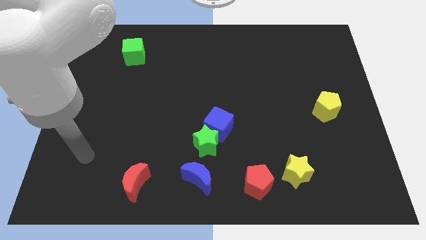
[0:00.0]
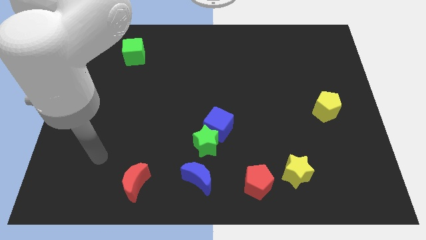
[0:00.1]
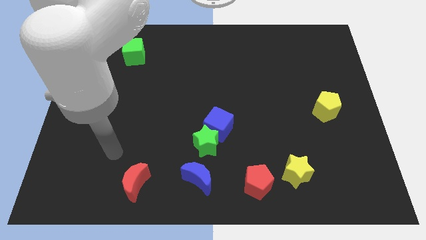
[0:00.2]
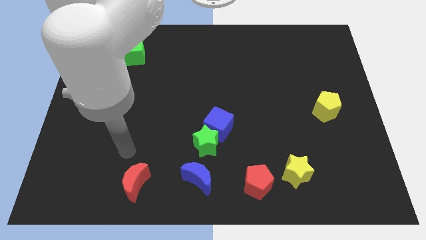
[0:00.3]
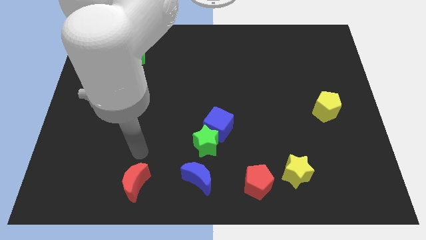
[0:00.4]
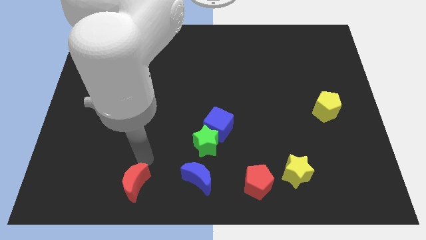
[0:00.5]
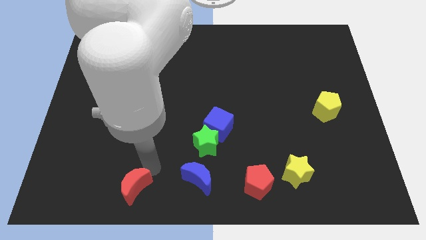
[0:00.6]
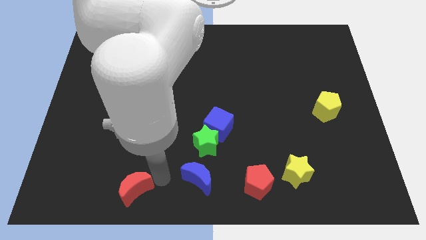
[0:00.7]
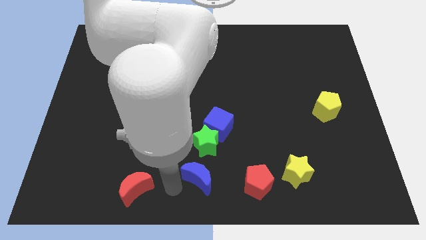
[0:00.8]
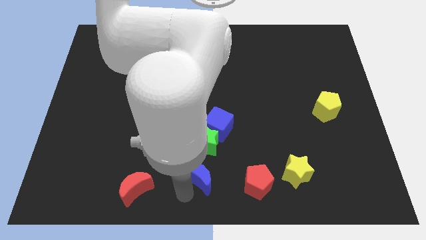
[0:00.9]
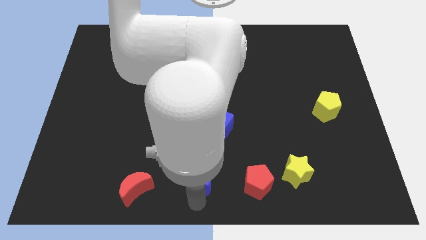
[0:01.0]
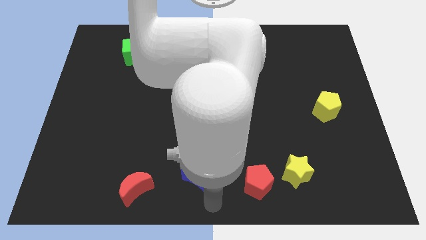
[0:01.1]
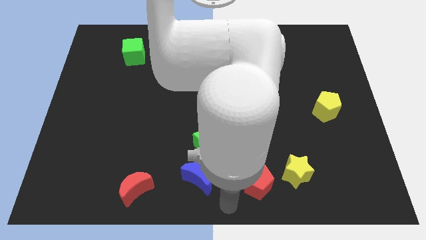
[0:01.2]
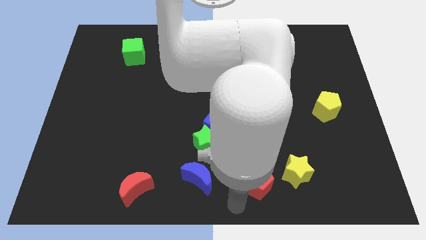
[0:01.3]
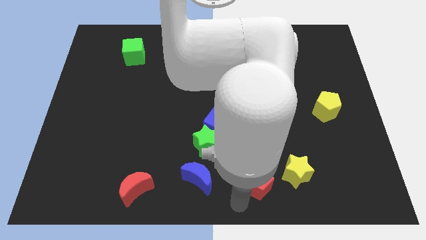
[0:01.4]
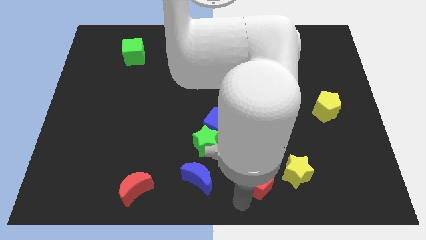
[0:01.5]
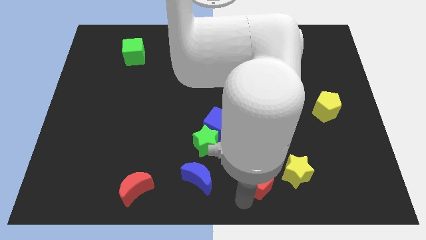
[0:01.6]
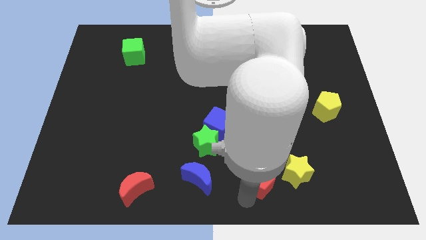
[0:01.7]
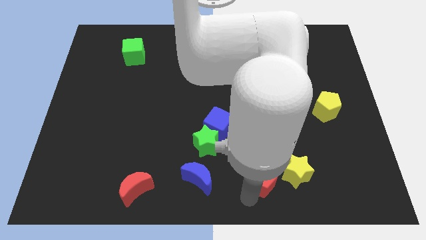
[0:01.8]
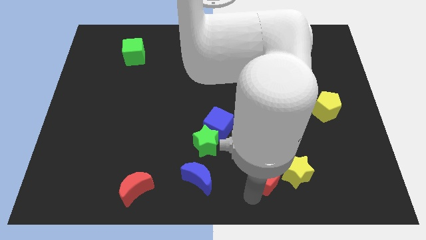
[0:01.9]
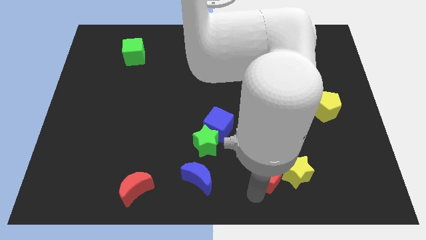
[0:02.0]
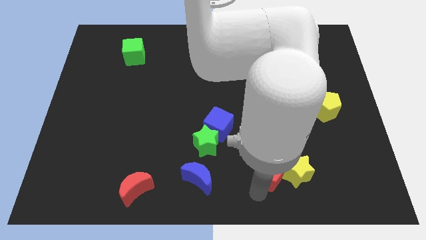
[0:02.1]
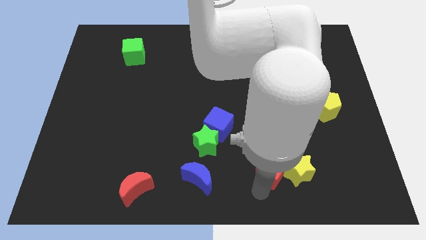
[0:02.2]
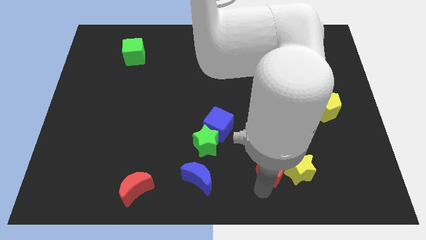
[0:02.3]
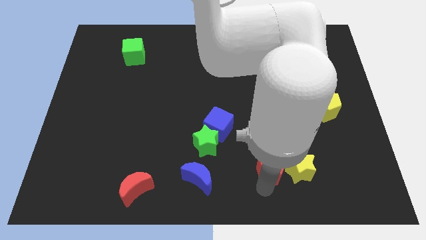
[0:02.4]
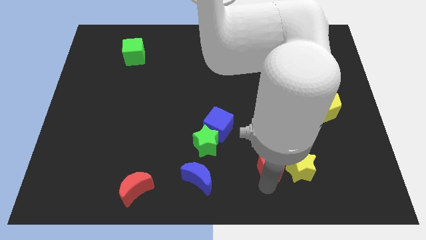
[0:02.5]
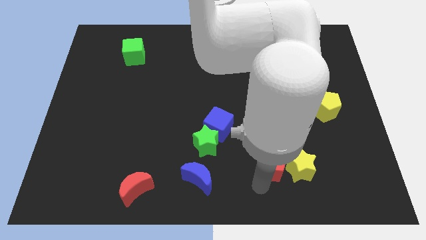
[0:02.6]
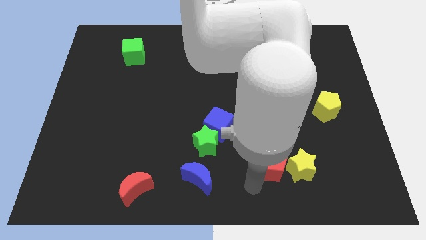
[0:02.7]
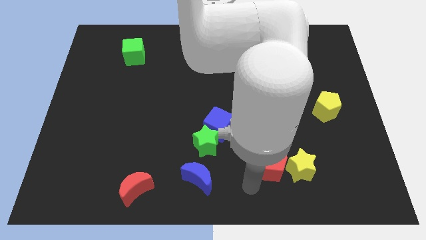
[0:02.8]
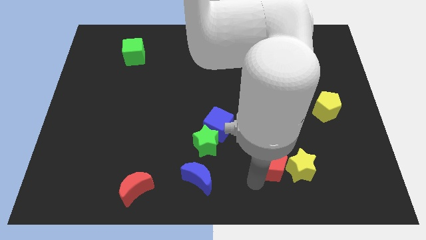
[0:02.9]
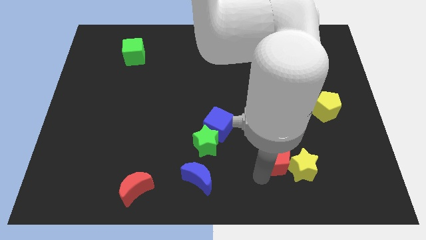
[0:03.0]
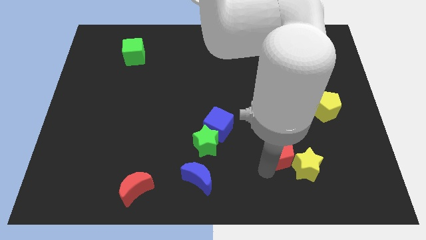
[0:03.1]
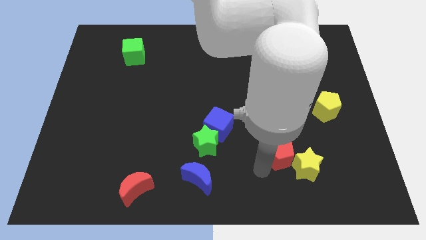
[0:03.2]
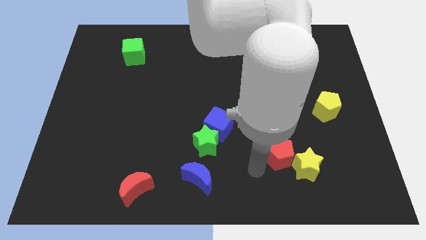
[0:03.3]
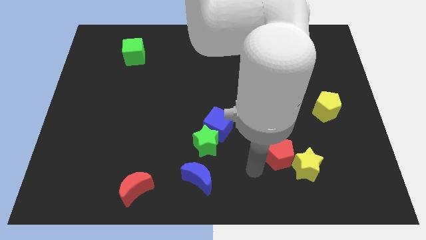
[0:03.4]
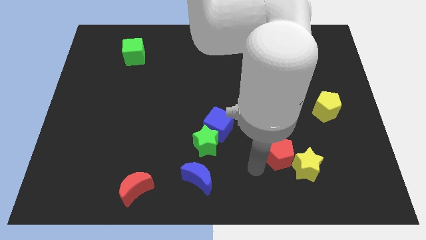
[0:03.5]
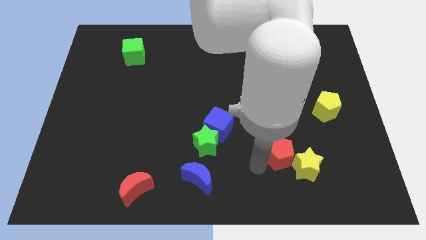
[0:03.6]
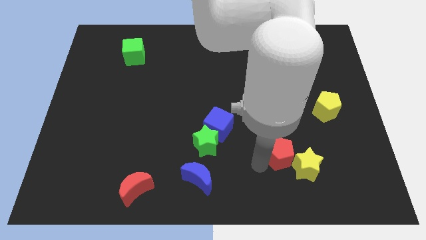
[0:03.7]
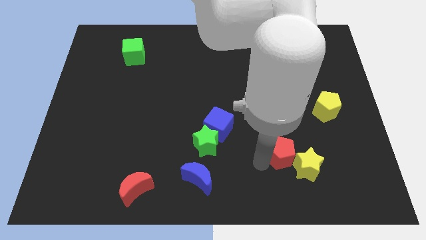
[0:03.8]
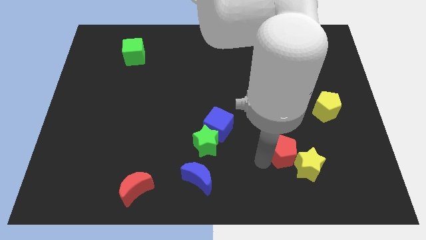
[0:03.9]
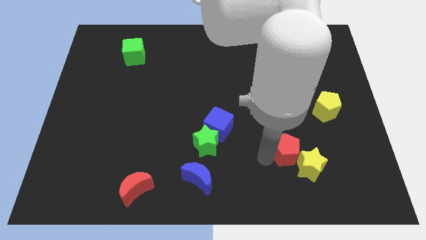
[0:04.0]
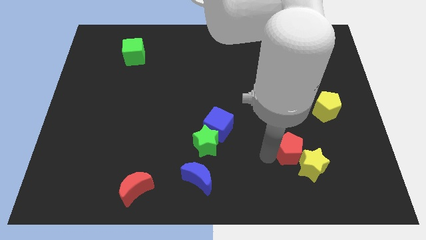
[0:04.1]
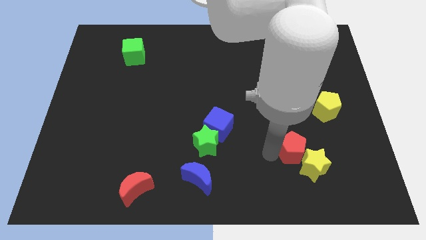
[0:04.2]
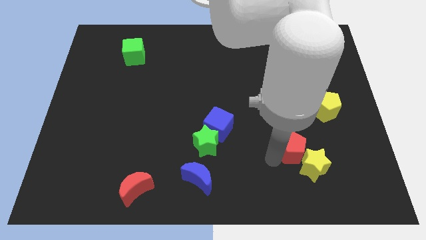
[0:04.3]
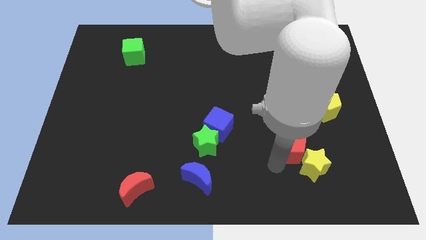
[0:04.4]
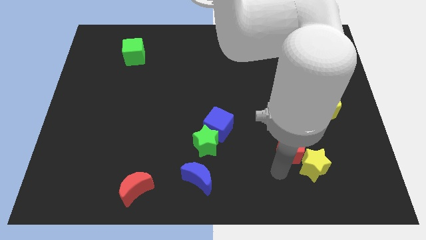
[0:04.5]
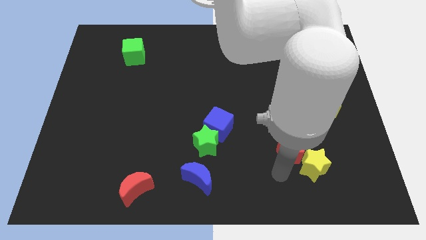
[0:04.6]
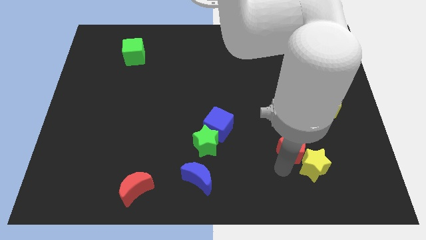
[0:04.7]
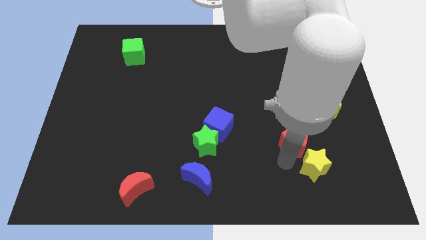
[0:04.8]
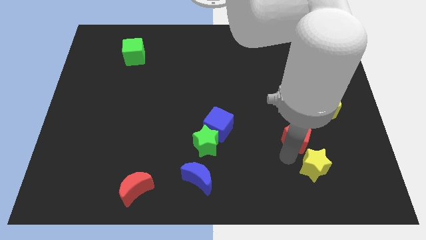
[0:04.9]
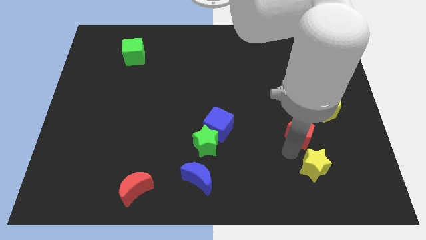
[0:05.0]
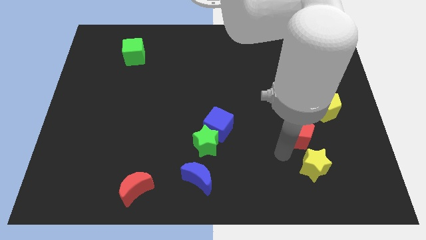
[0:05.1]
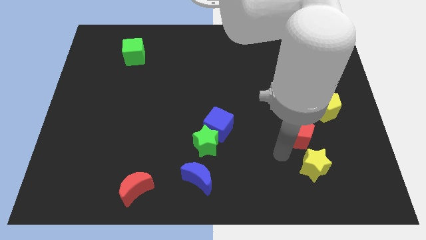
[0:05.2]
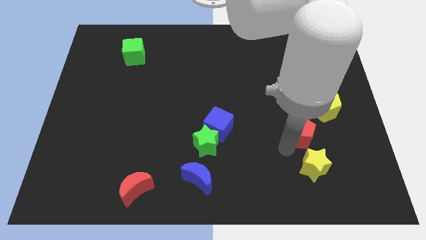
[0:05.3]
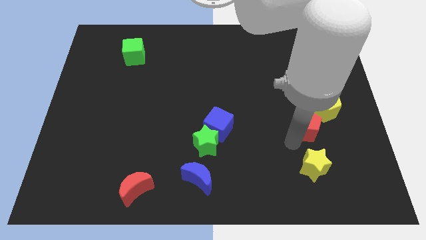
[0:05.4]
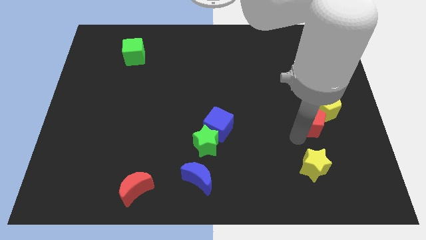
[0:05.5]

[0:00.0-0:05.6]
push the red pentagon next to the yellow pentagon

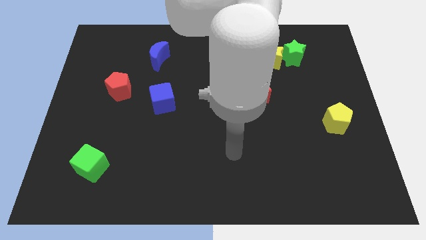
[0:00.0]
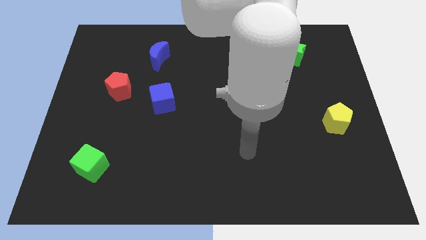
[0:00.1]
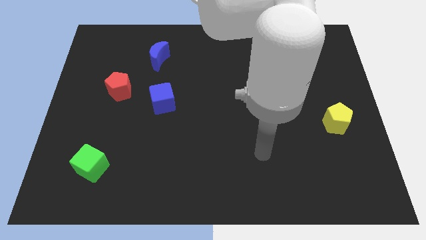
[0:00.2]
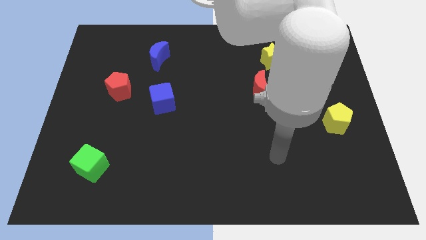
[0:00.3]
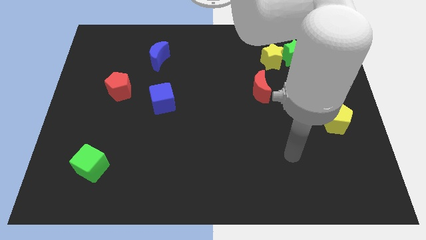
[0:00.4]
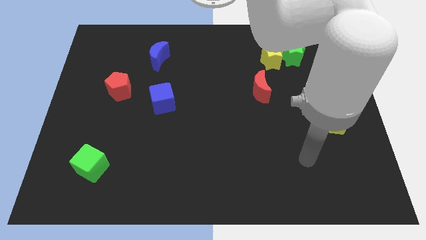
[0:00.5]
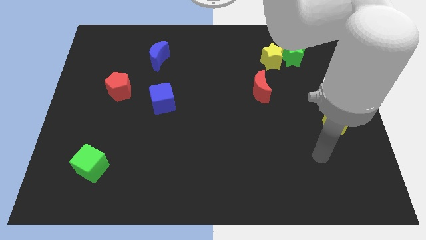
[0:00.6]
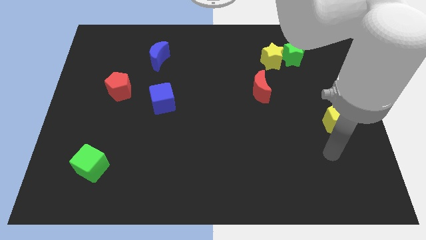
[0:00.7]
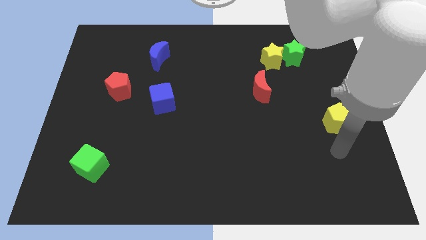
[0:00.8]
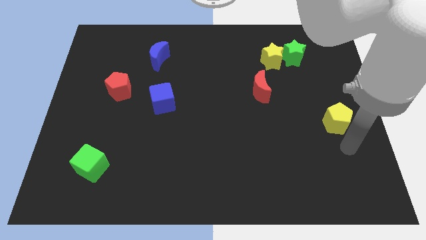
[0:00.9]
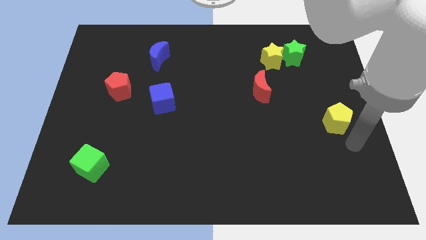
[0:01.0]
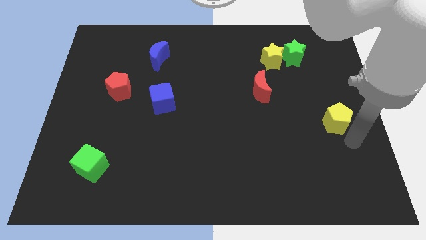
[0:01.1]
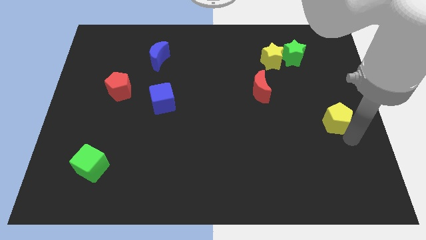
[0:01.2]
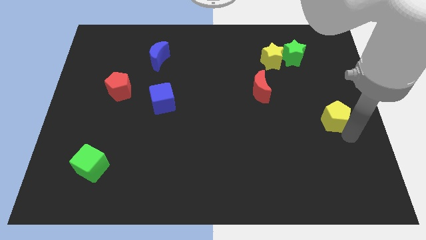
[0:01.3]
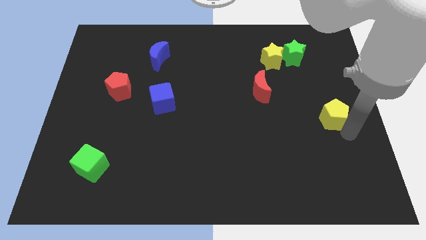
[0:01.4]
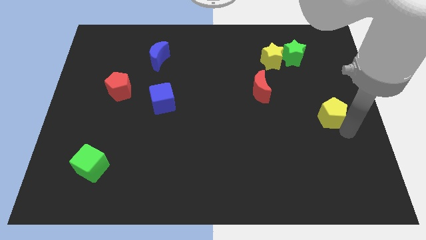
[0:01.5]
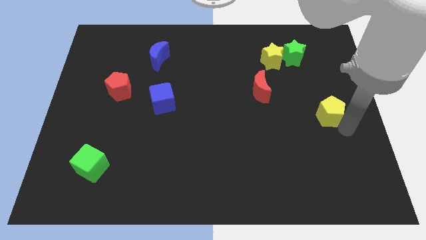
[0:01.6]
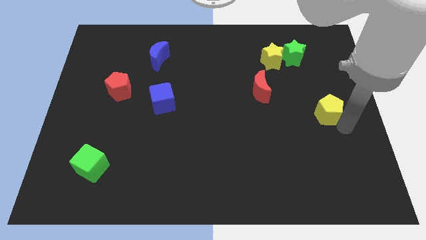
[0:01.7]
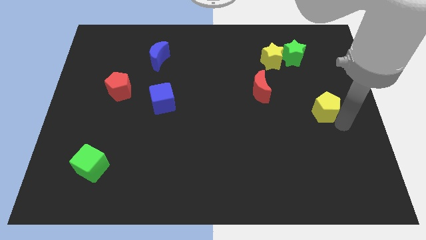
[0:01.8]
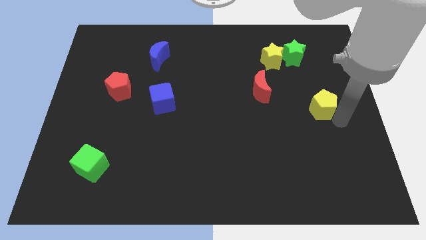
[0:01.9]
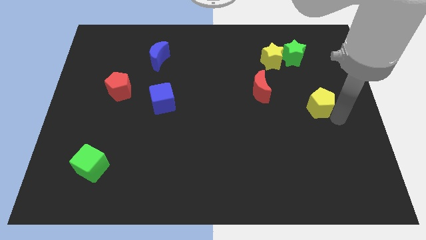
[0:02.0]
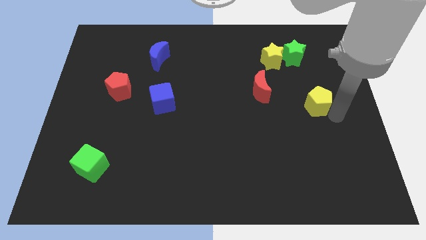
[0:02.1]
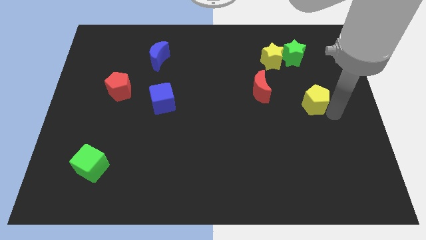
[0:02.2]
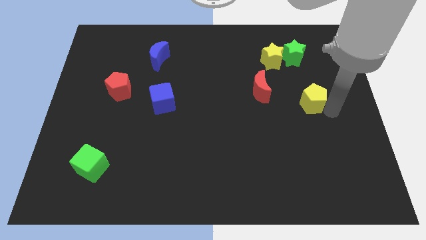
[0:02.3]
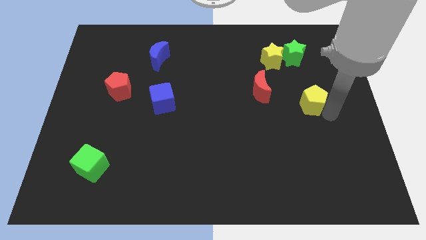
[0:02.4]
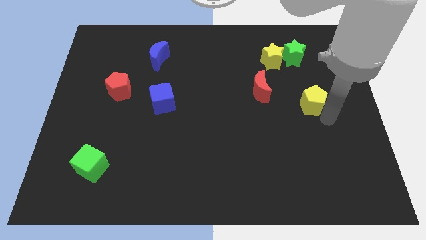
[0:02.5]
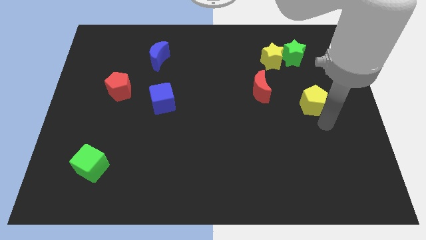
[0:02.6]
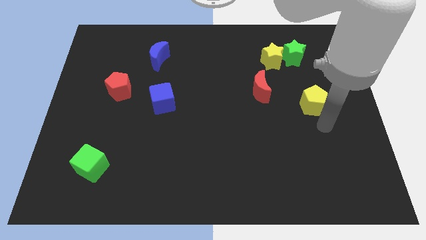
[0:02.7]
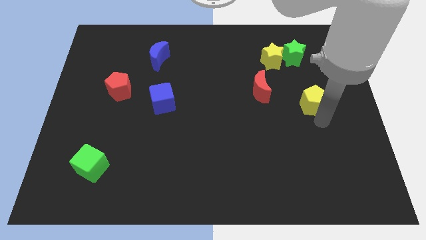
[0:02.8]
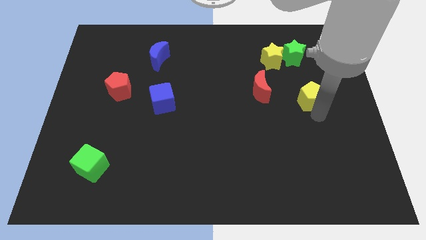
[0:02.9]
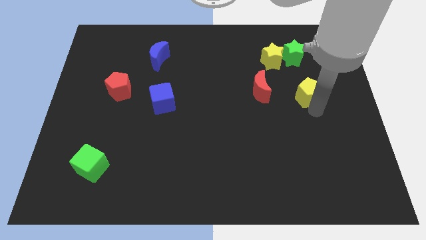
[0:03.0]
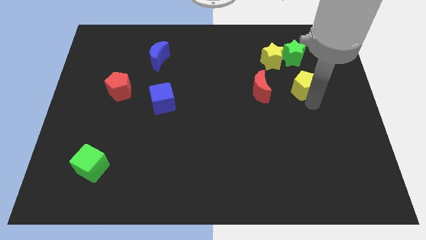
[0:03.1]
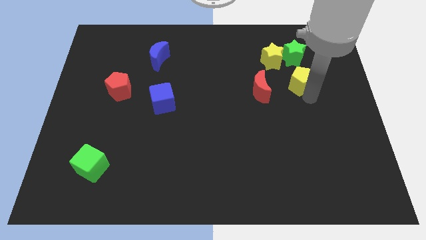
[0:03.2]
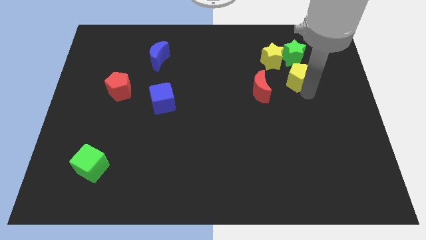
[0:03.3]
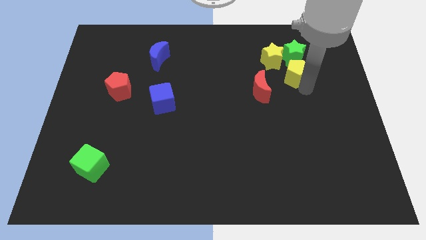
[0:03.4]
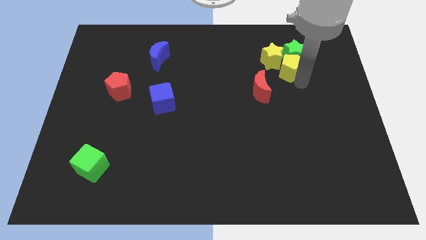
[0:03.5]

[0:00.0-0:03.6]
put the yellow pentagon next to the yellow star
